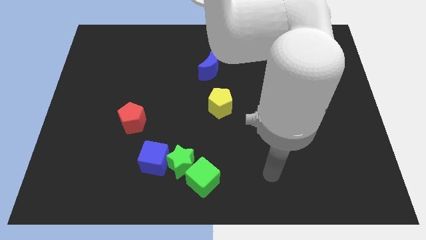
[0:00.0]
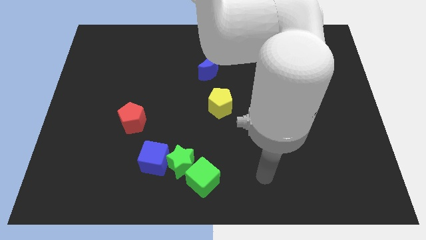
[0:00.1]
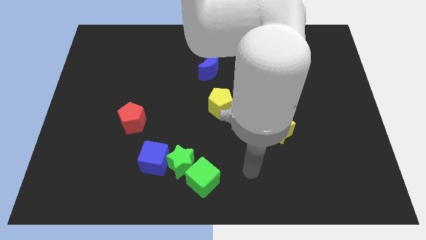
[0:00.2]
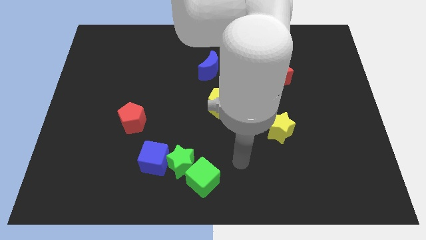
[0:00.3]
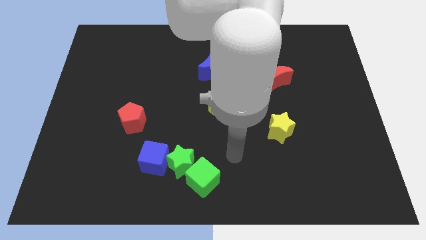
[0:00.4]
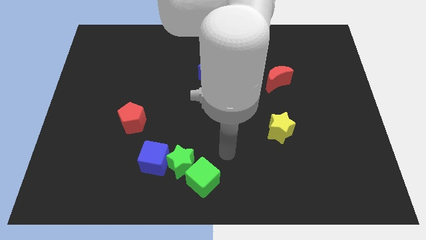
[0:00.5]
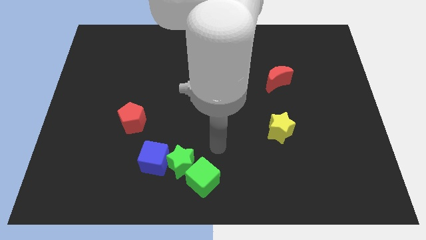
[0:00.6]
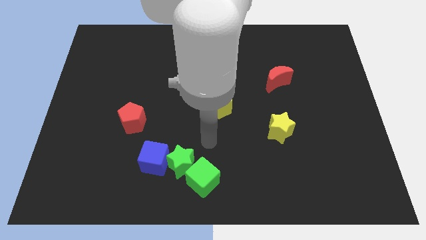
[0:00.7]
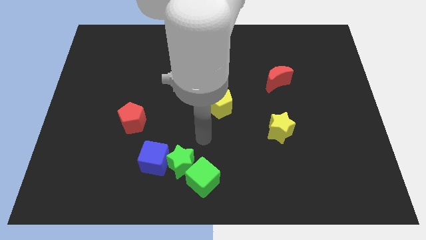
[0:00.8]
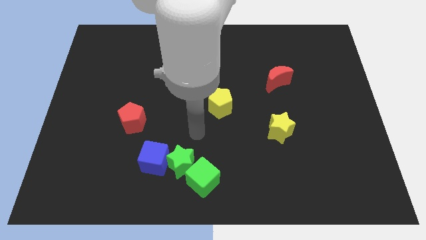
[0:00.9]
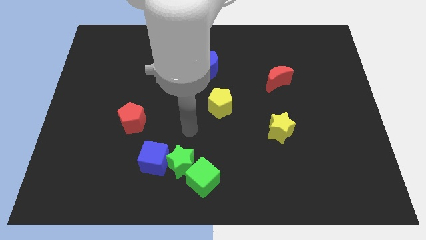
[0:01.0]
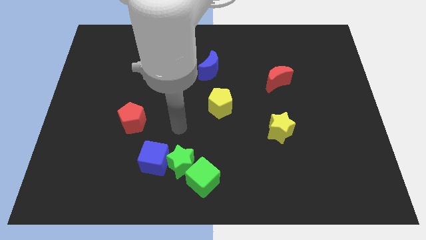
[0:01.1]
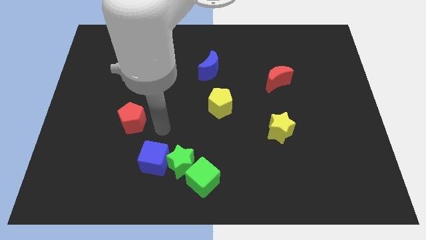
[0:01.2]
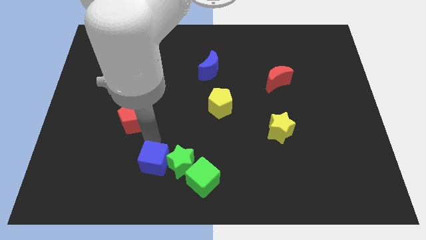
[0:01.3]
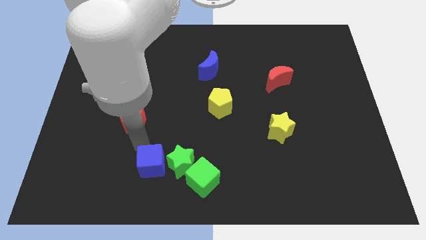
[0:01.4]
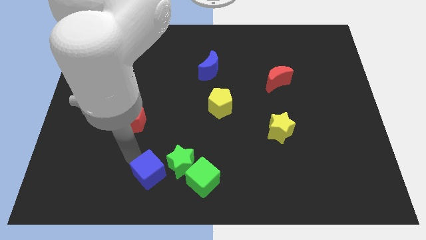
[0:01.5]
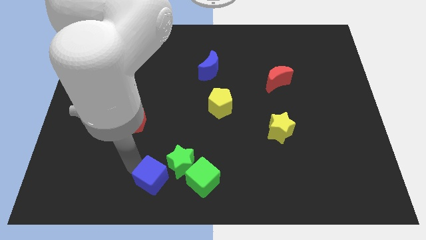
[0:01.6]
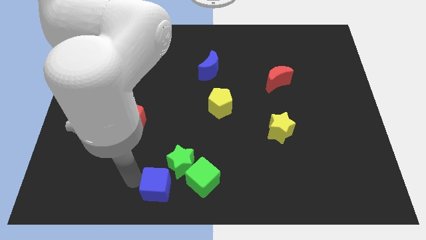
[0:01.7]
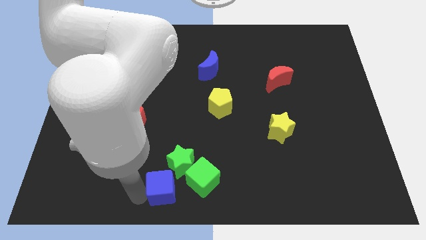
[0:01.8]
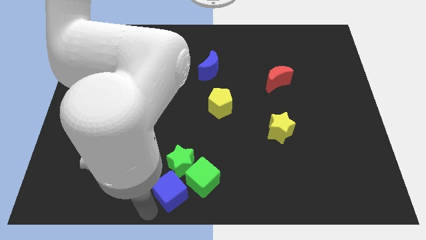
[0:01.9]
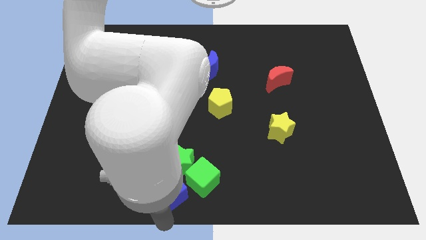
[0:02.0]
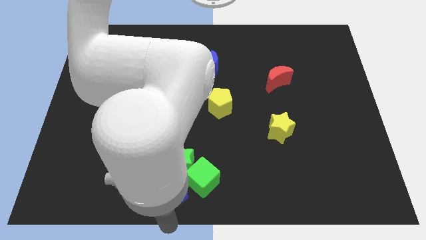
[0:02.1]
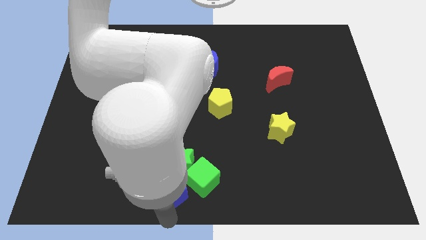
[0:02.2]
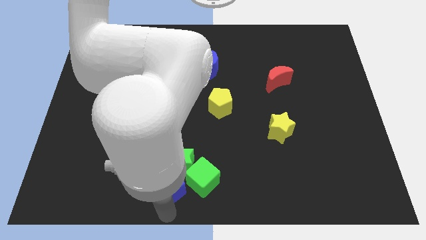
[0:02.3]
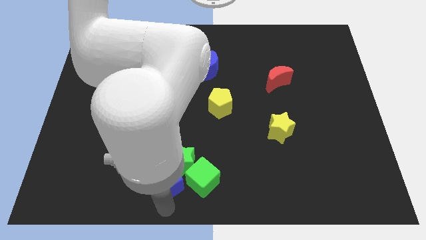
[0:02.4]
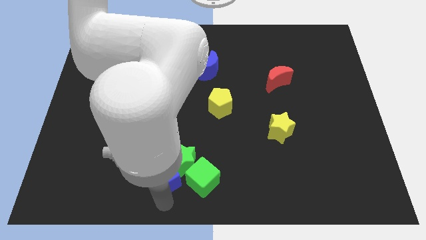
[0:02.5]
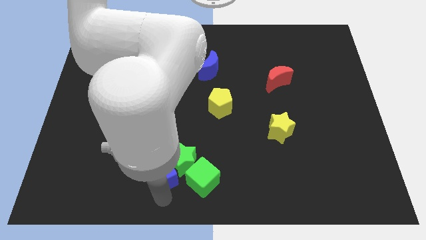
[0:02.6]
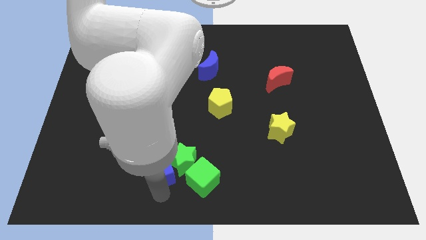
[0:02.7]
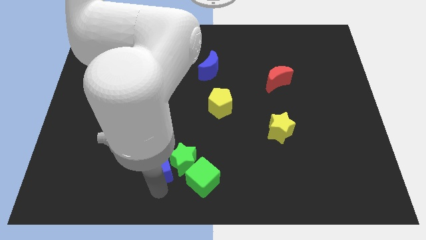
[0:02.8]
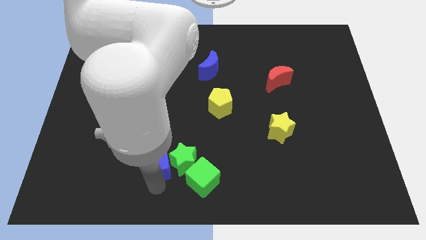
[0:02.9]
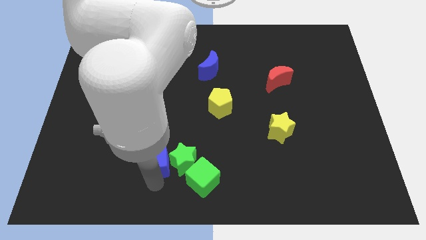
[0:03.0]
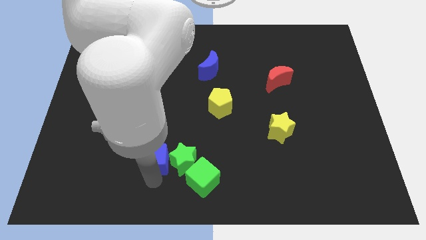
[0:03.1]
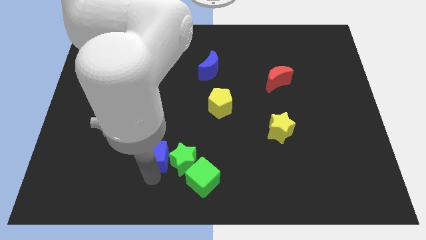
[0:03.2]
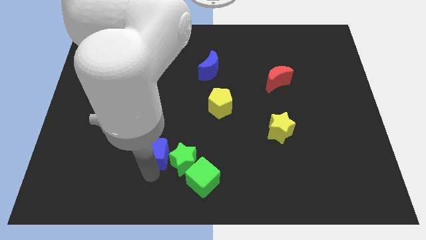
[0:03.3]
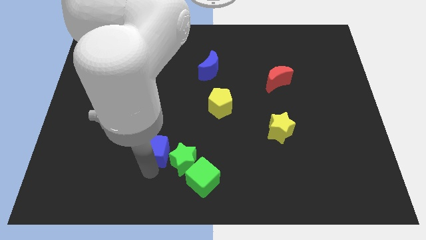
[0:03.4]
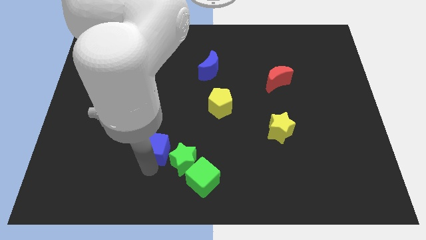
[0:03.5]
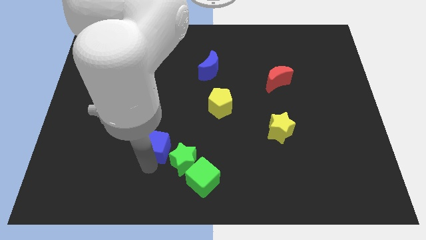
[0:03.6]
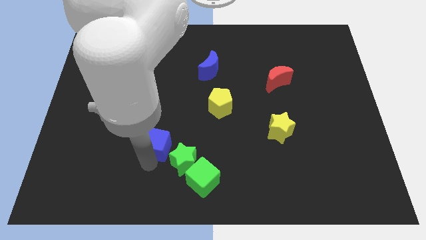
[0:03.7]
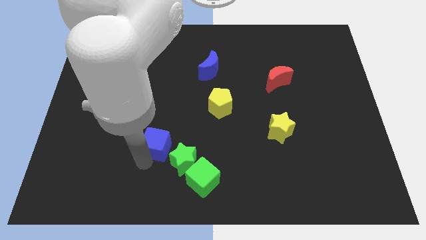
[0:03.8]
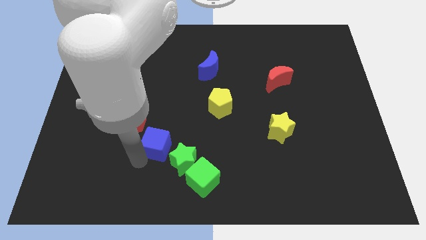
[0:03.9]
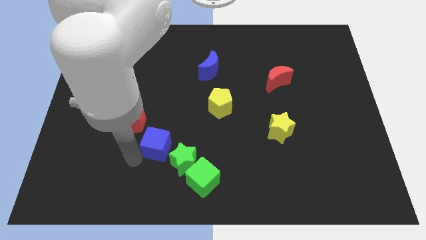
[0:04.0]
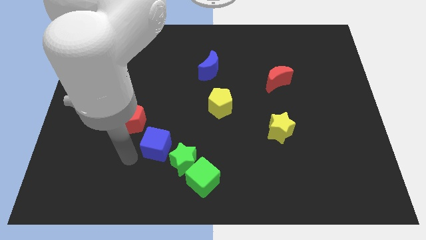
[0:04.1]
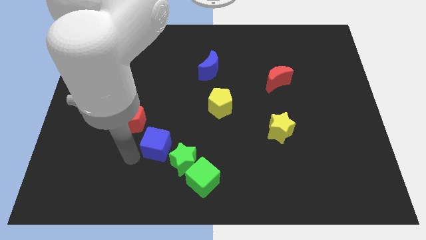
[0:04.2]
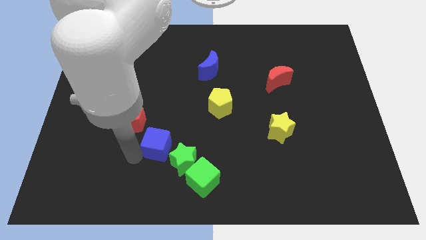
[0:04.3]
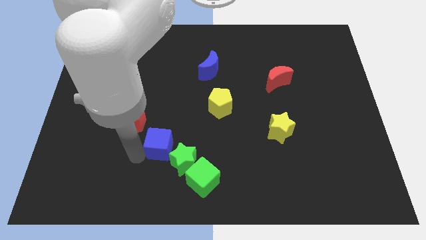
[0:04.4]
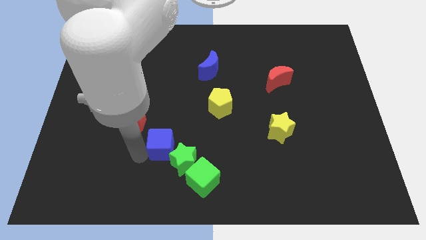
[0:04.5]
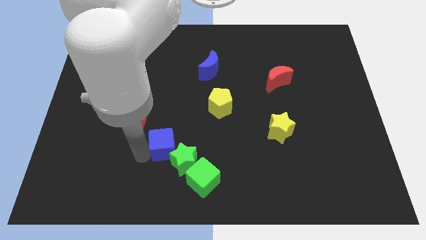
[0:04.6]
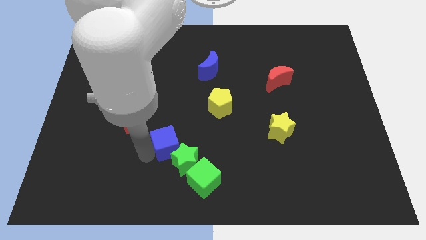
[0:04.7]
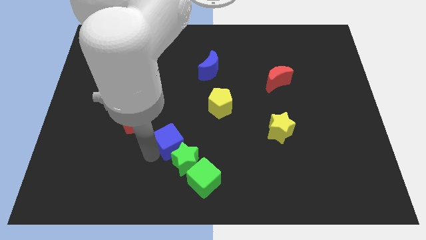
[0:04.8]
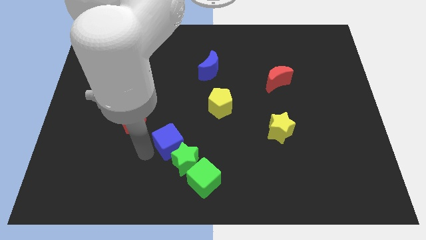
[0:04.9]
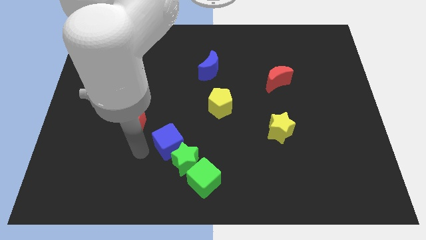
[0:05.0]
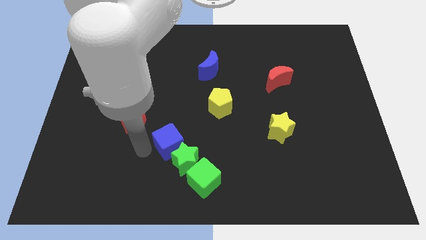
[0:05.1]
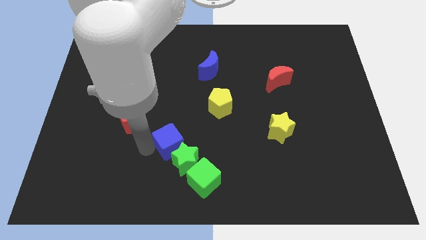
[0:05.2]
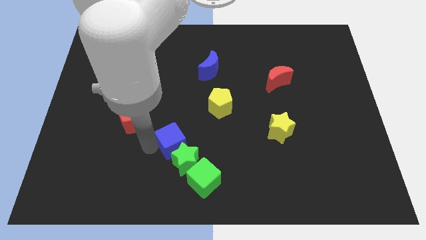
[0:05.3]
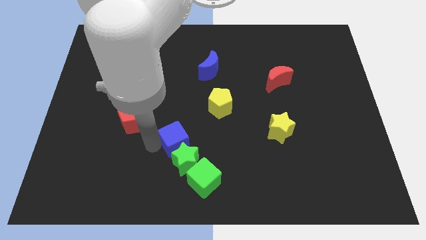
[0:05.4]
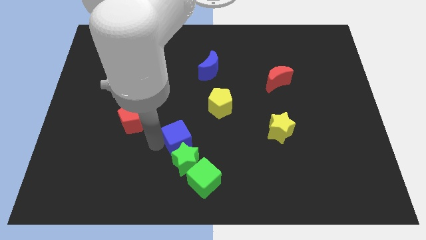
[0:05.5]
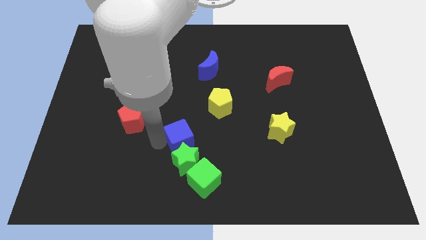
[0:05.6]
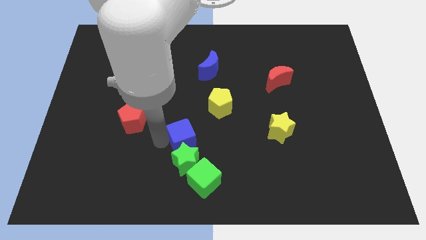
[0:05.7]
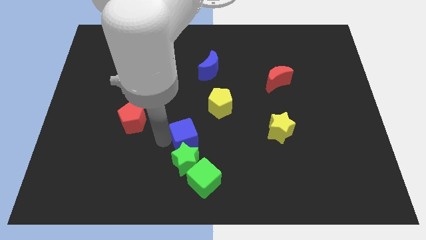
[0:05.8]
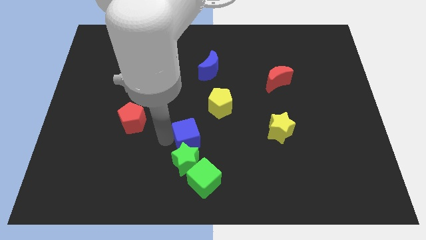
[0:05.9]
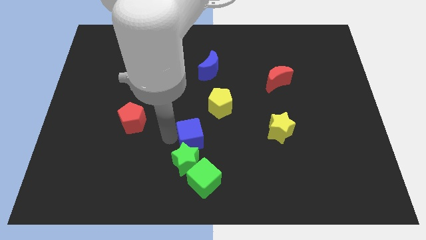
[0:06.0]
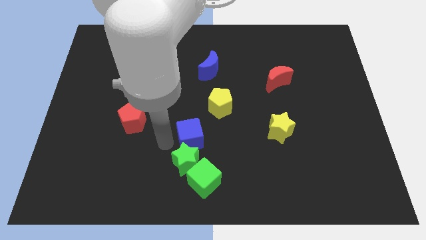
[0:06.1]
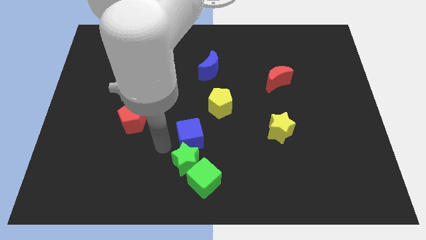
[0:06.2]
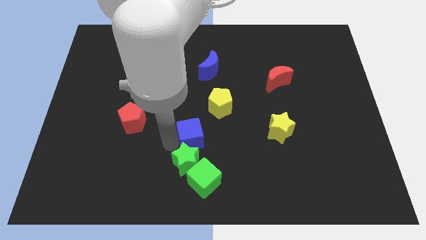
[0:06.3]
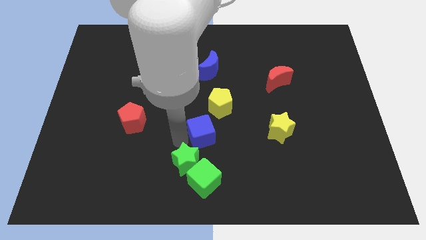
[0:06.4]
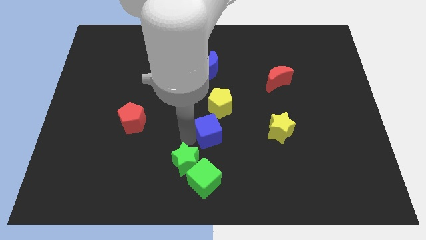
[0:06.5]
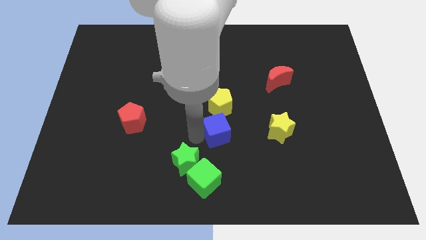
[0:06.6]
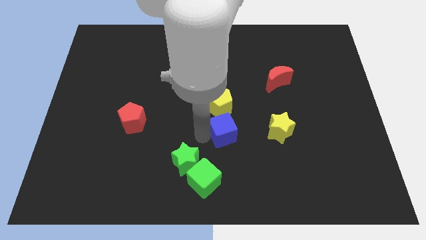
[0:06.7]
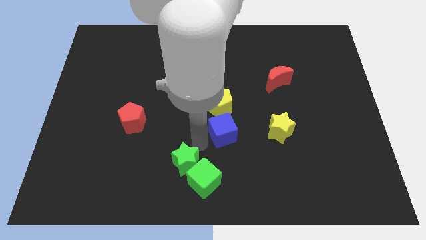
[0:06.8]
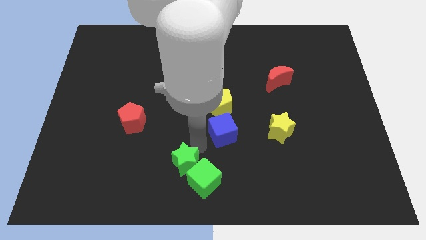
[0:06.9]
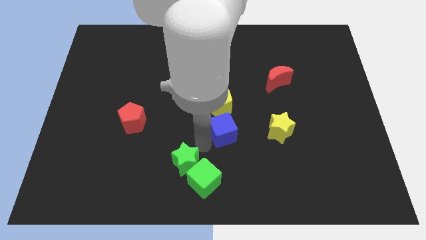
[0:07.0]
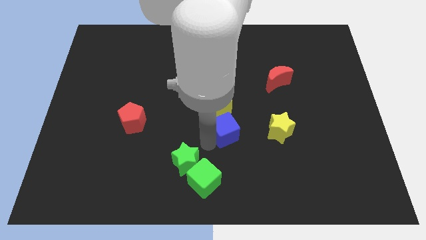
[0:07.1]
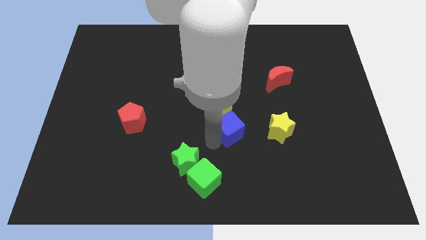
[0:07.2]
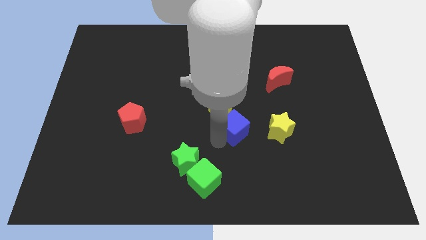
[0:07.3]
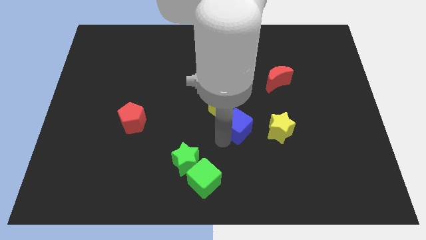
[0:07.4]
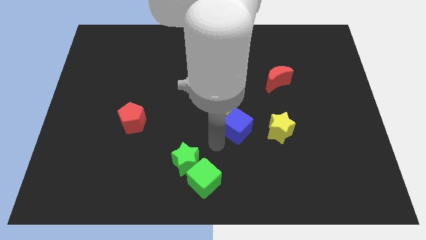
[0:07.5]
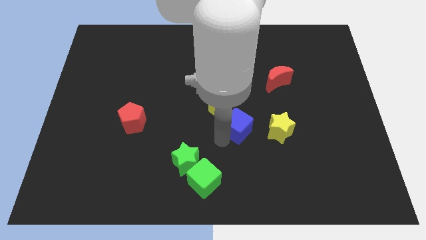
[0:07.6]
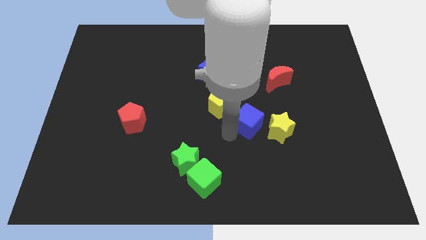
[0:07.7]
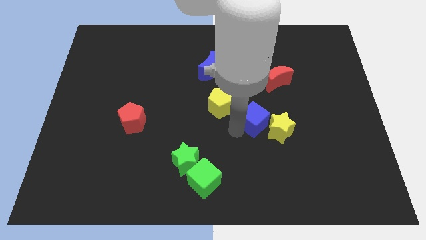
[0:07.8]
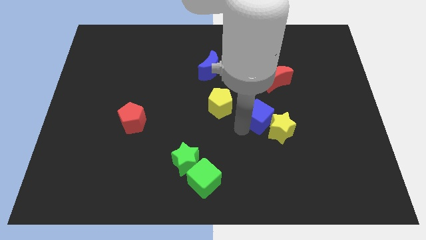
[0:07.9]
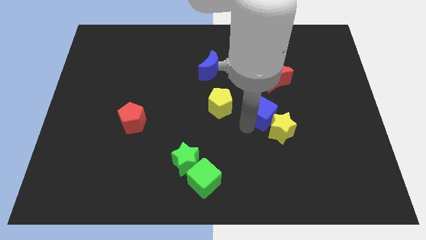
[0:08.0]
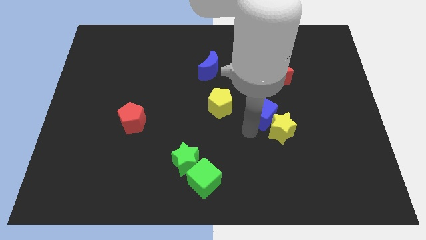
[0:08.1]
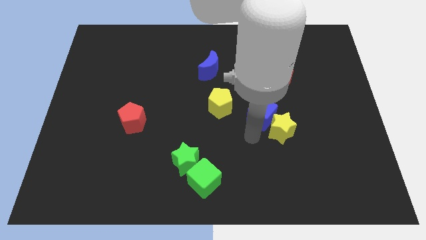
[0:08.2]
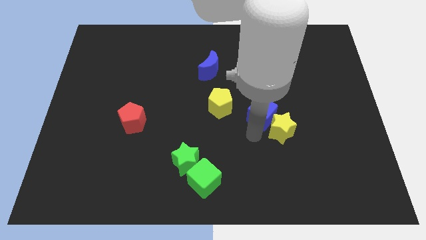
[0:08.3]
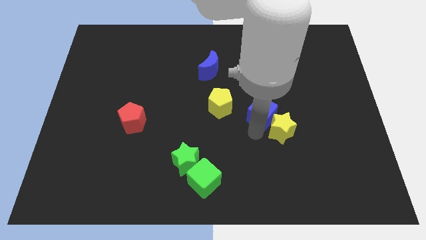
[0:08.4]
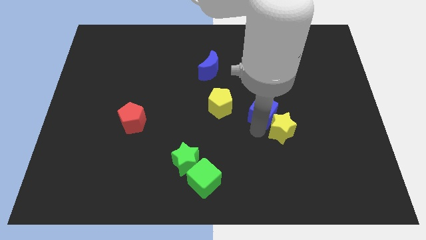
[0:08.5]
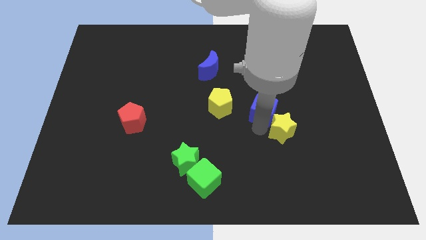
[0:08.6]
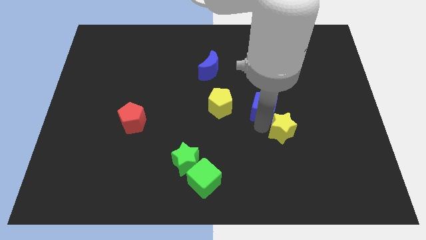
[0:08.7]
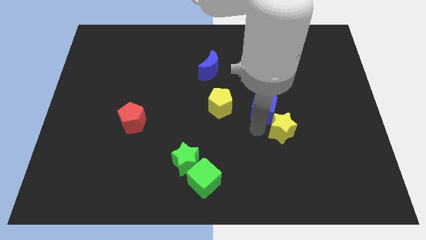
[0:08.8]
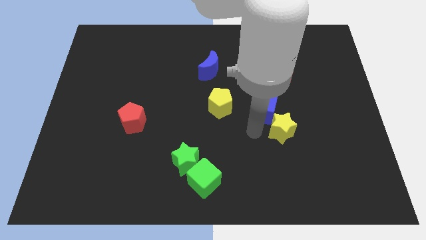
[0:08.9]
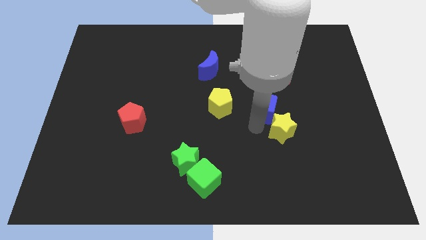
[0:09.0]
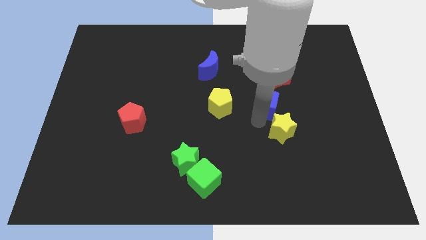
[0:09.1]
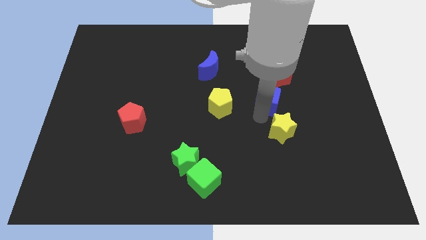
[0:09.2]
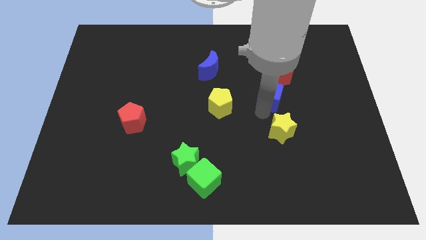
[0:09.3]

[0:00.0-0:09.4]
put the blue cube towards the red moon
